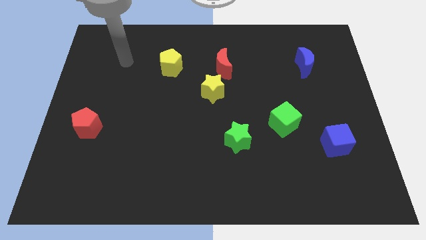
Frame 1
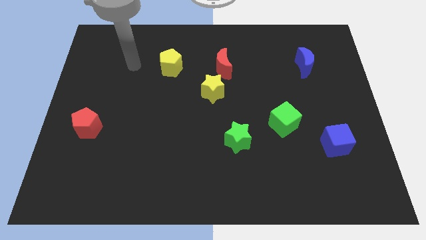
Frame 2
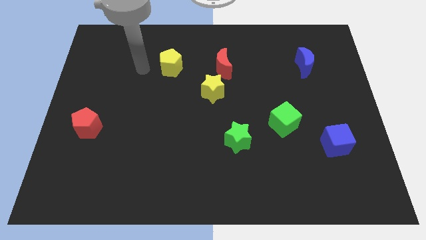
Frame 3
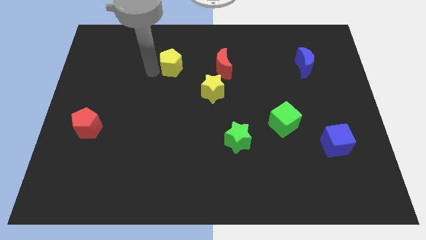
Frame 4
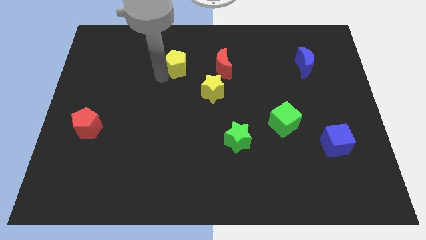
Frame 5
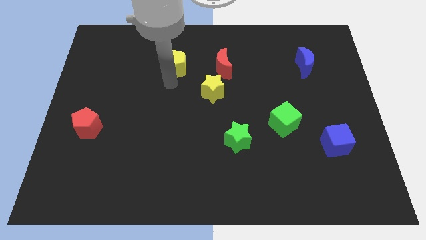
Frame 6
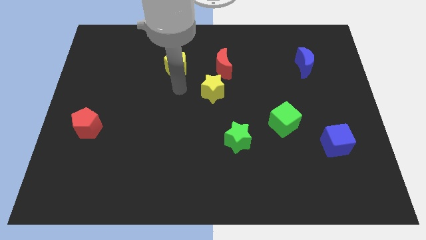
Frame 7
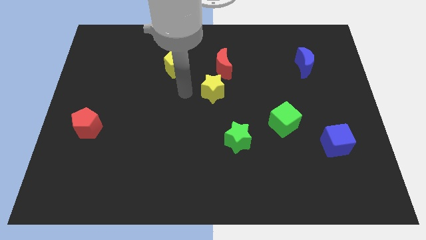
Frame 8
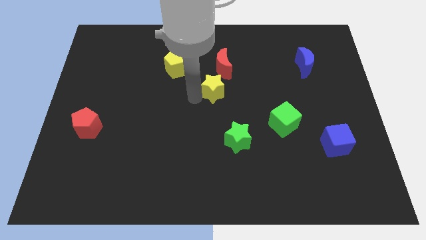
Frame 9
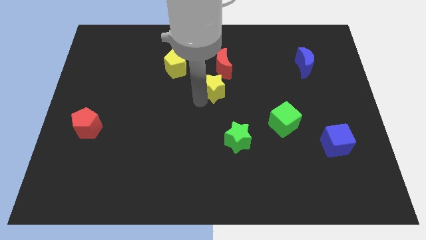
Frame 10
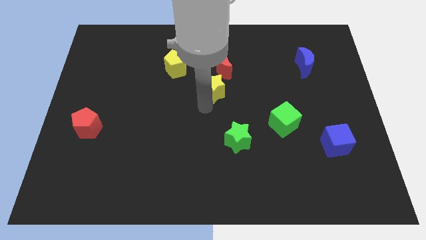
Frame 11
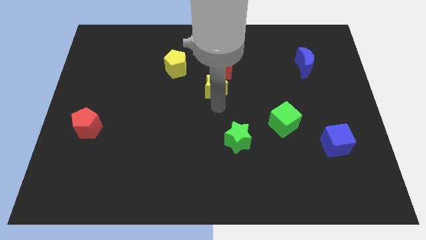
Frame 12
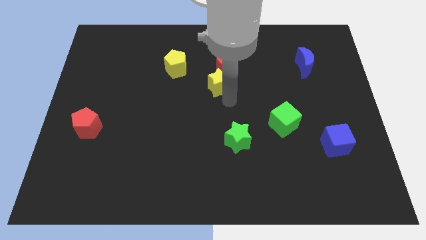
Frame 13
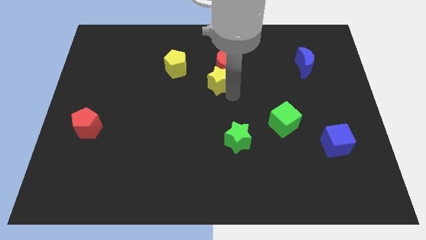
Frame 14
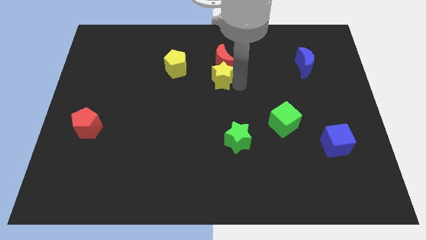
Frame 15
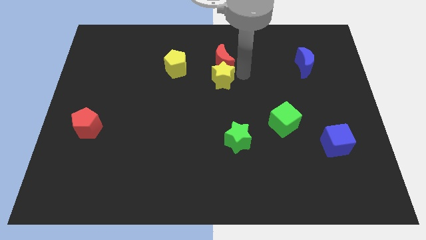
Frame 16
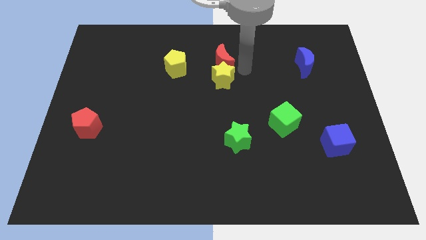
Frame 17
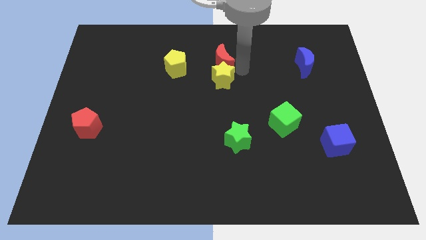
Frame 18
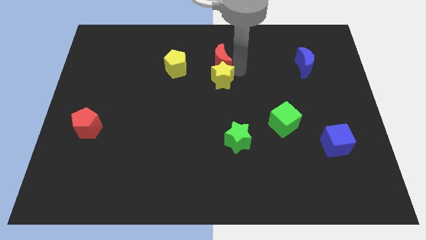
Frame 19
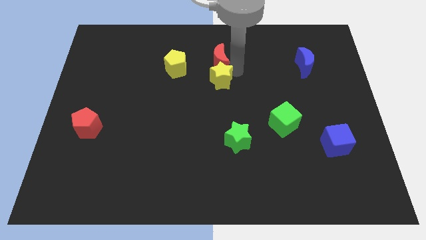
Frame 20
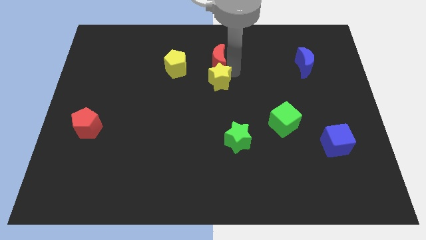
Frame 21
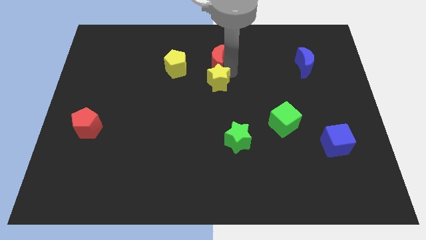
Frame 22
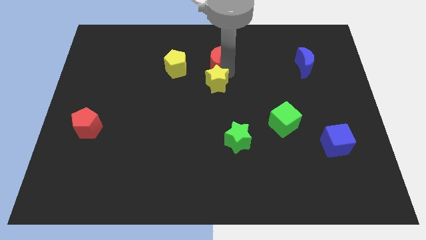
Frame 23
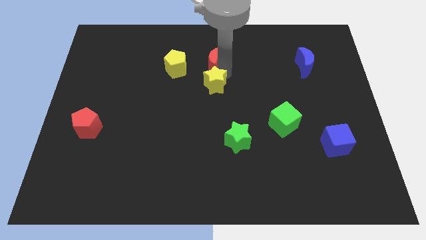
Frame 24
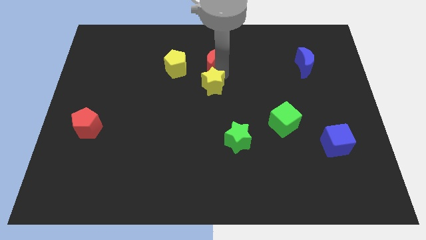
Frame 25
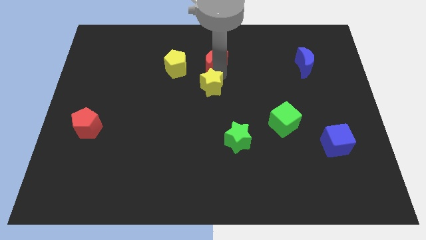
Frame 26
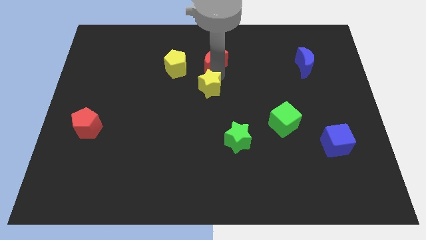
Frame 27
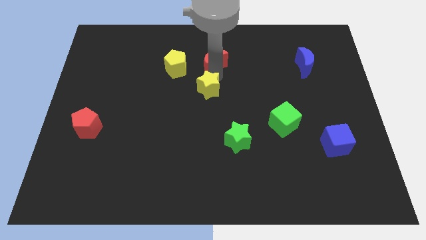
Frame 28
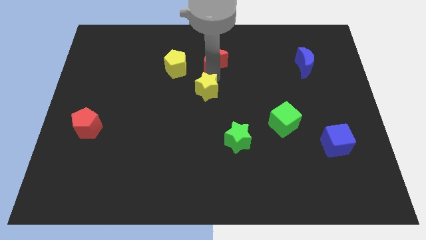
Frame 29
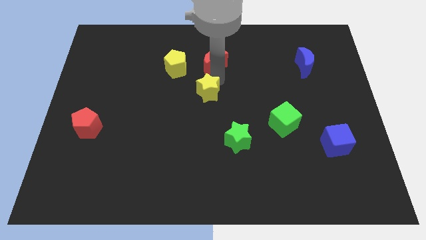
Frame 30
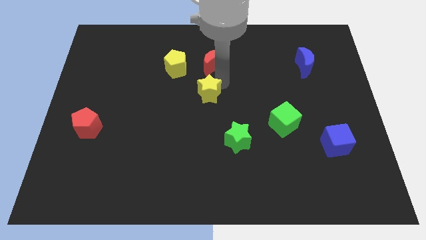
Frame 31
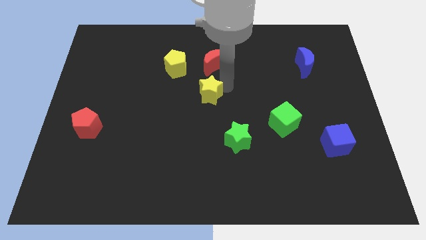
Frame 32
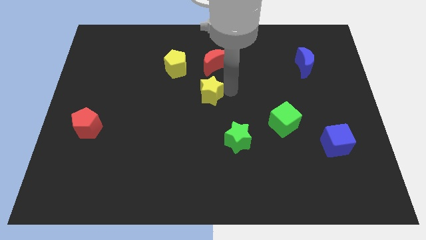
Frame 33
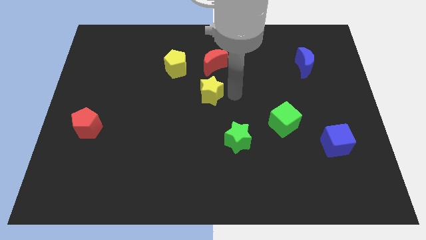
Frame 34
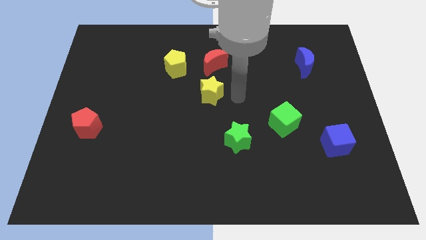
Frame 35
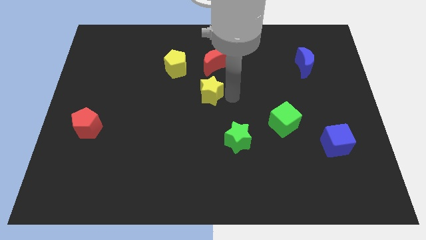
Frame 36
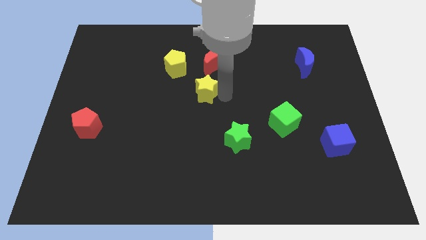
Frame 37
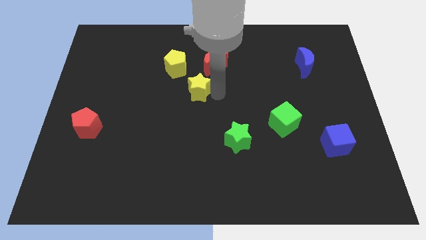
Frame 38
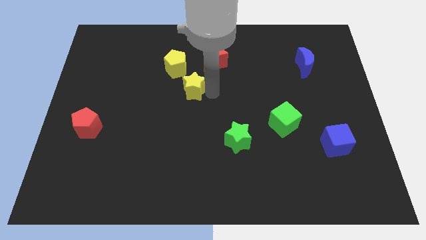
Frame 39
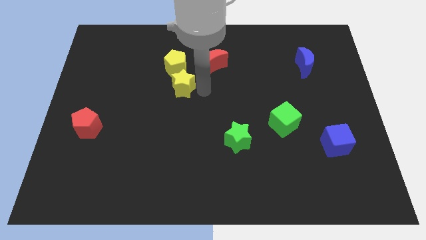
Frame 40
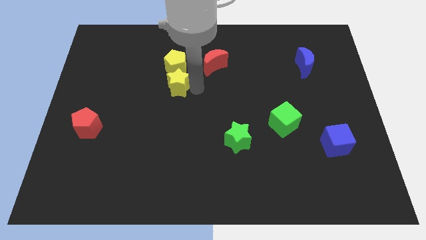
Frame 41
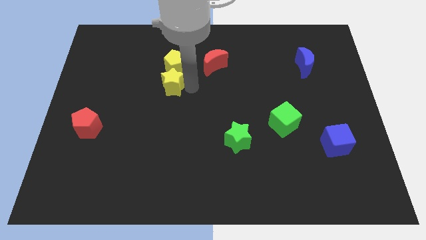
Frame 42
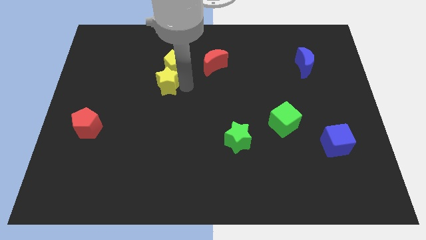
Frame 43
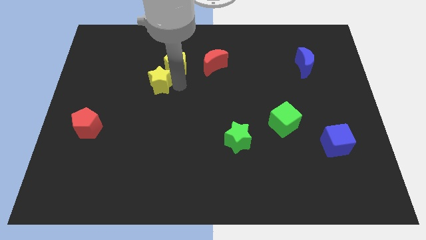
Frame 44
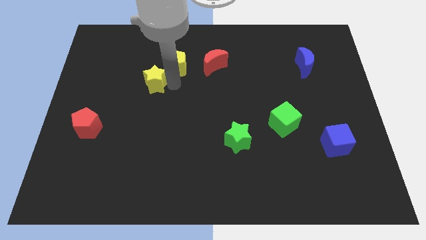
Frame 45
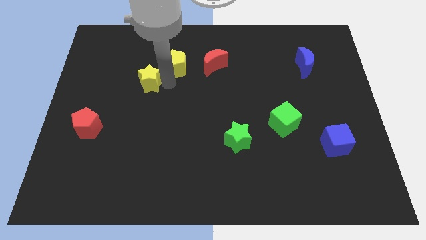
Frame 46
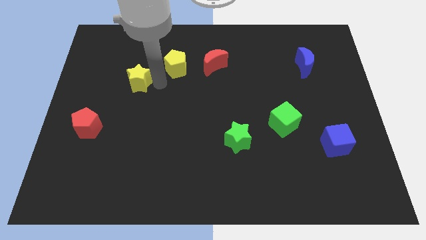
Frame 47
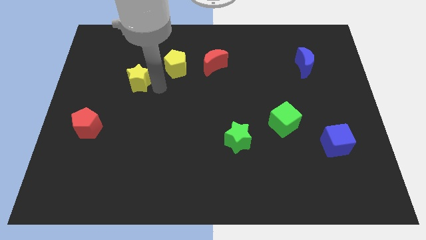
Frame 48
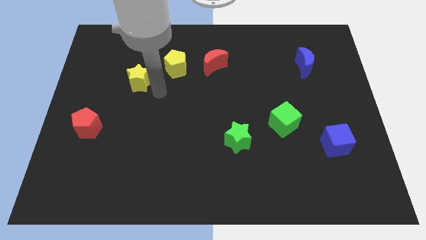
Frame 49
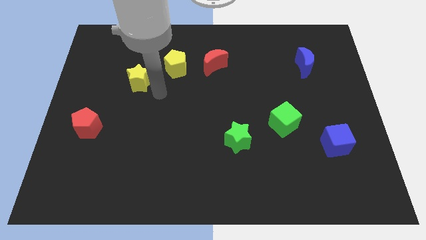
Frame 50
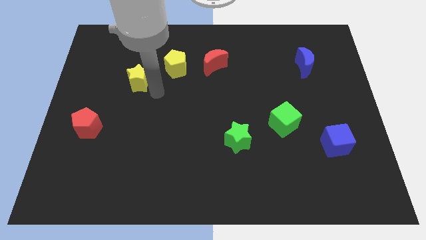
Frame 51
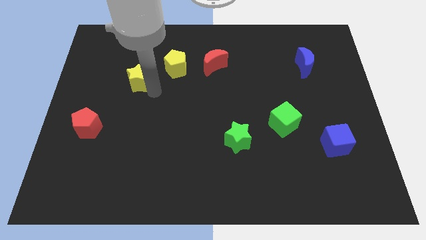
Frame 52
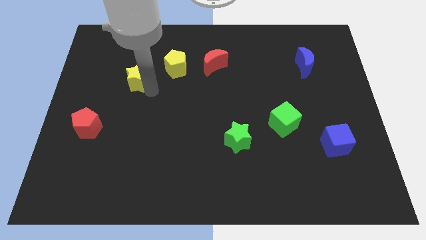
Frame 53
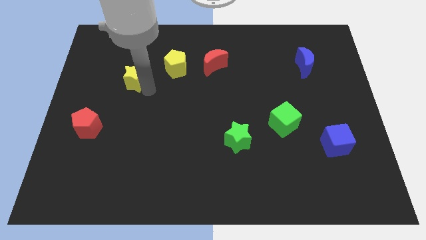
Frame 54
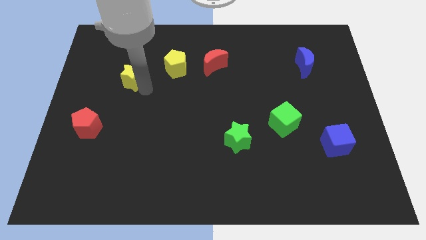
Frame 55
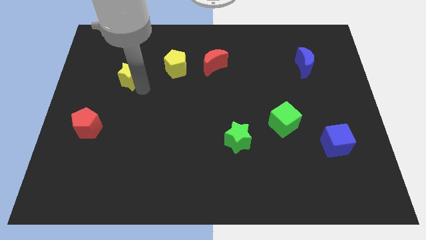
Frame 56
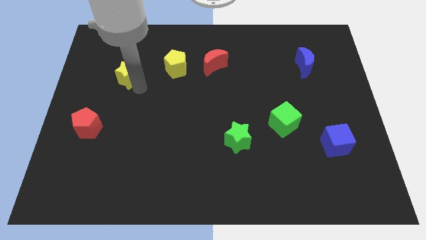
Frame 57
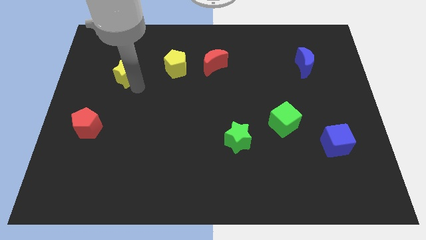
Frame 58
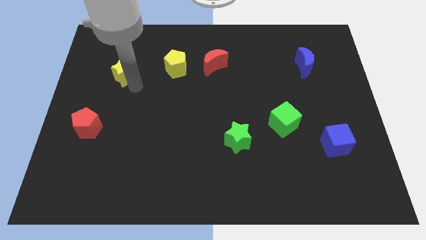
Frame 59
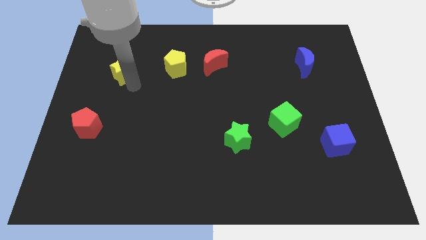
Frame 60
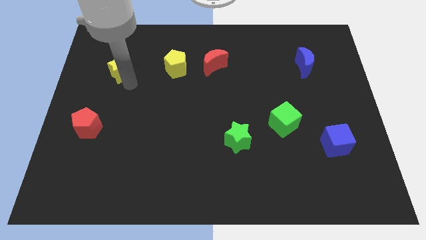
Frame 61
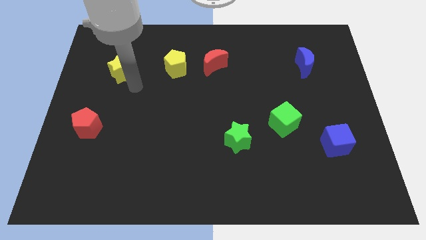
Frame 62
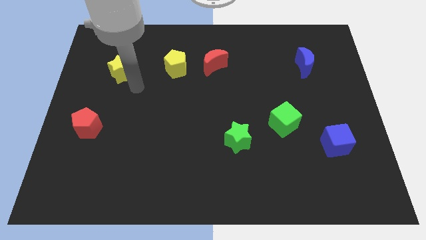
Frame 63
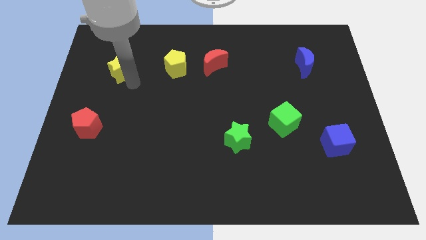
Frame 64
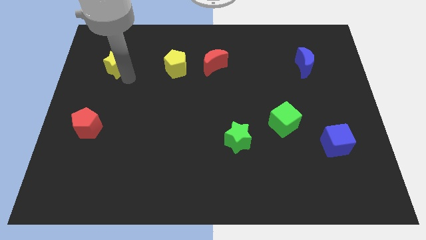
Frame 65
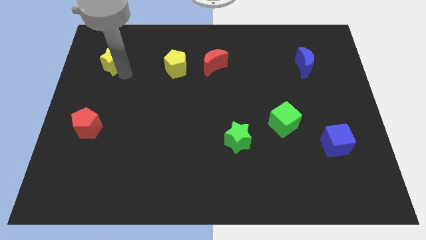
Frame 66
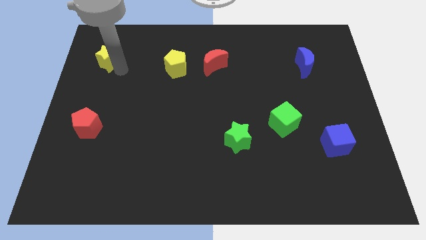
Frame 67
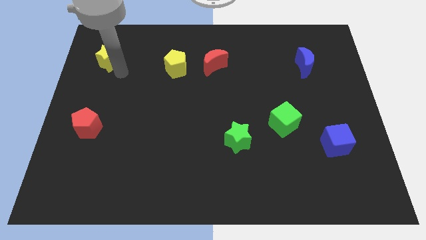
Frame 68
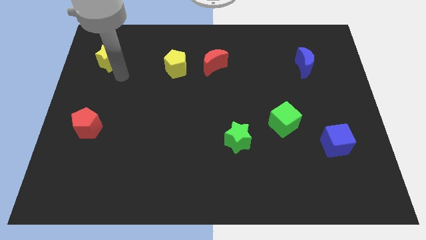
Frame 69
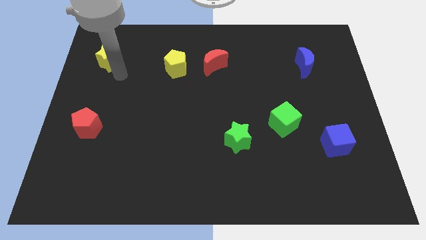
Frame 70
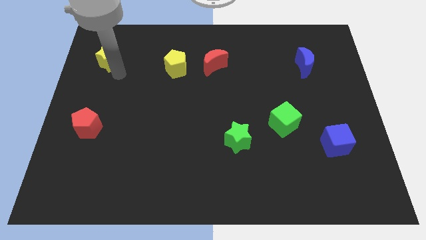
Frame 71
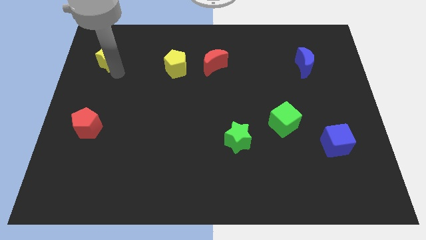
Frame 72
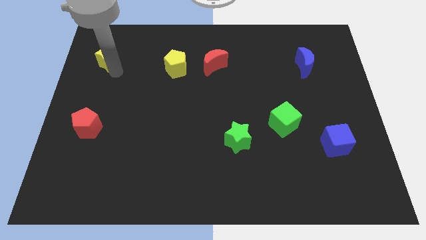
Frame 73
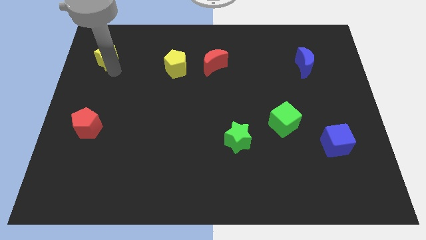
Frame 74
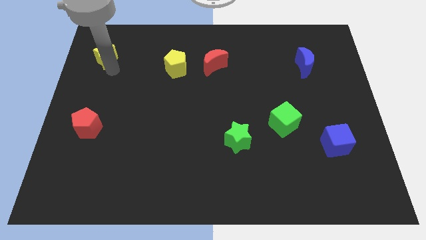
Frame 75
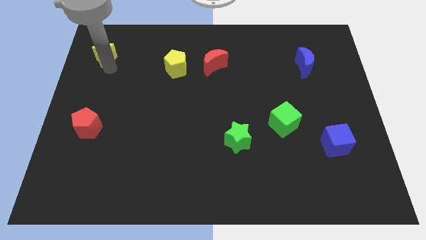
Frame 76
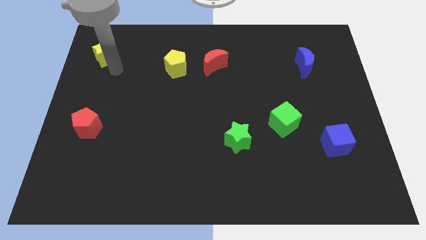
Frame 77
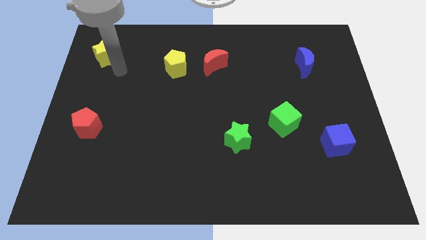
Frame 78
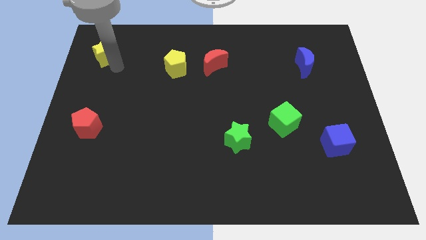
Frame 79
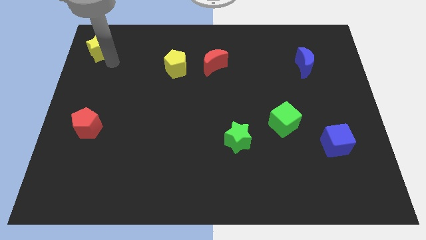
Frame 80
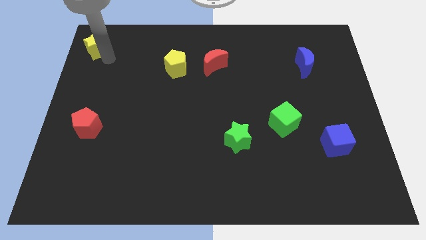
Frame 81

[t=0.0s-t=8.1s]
push the yellow star to the upper left corner
